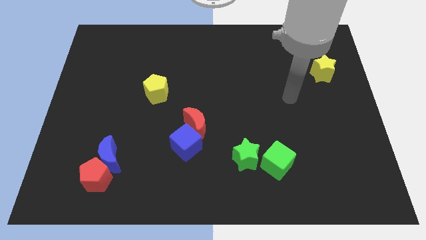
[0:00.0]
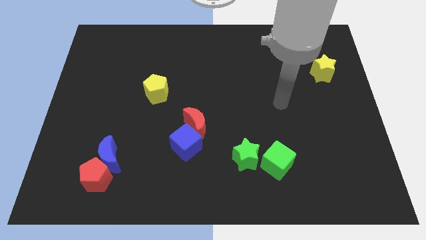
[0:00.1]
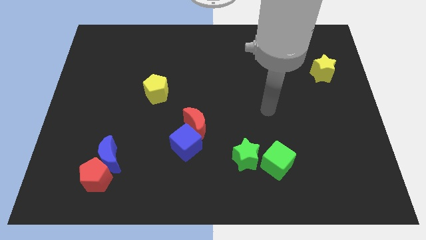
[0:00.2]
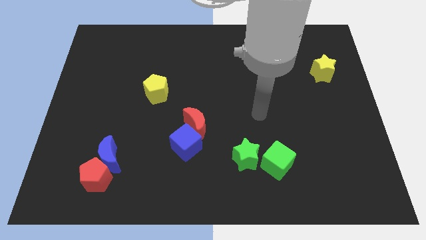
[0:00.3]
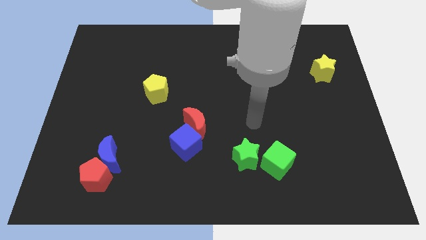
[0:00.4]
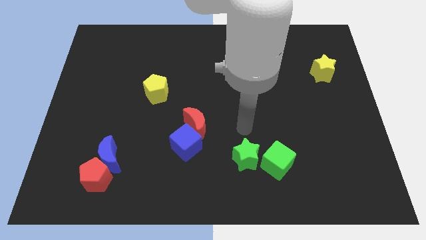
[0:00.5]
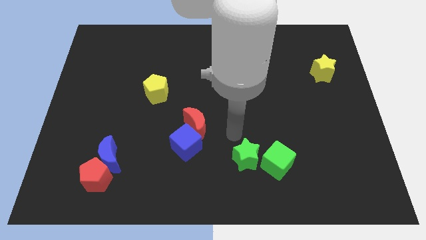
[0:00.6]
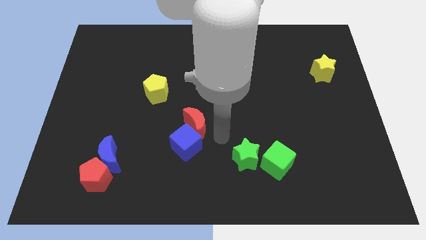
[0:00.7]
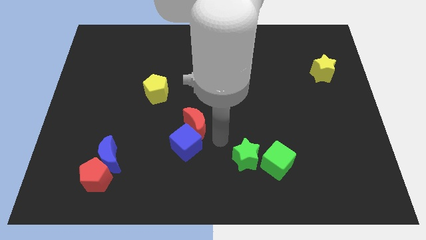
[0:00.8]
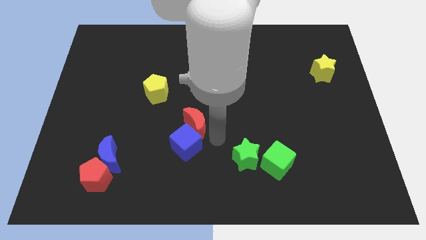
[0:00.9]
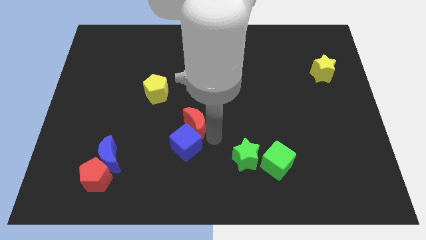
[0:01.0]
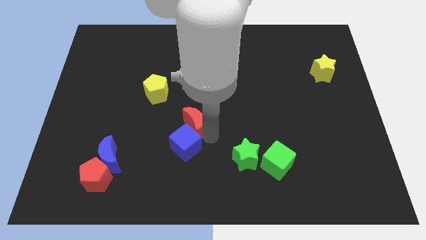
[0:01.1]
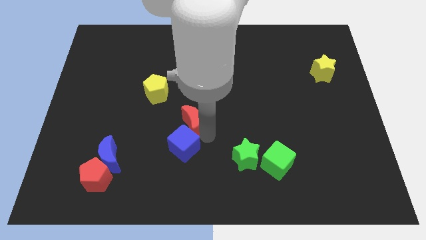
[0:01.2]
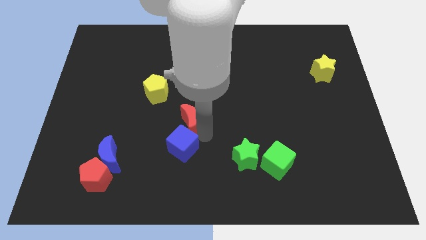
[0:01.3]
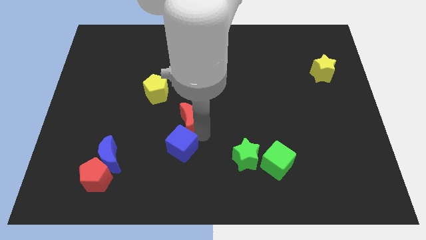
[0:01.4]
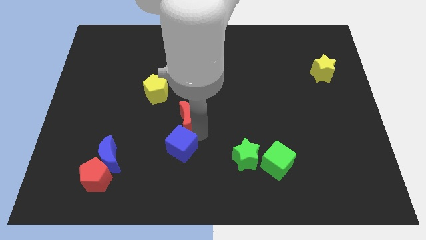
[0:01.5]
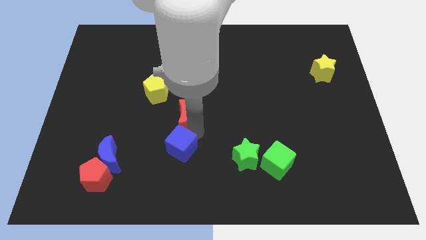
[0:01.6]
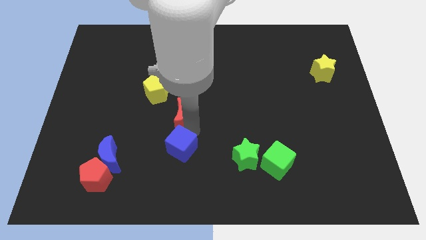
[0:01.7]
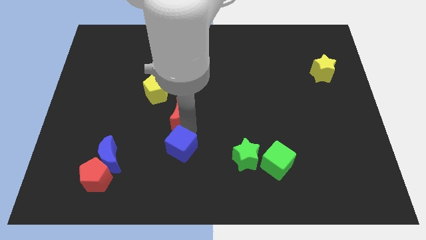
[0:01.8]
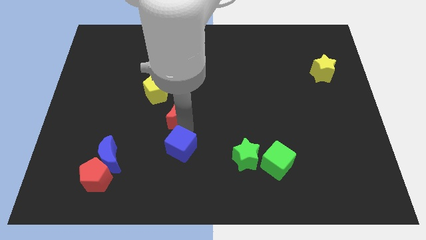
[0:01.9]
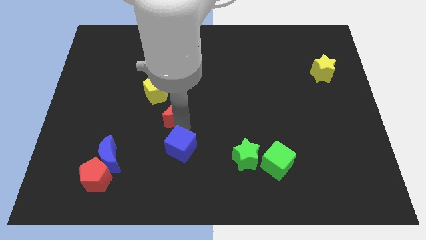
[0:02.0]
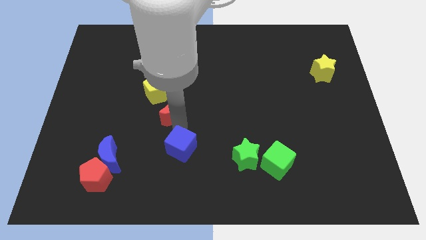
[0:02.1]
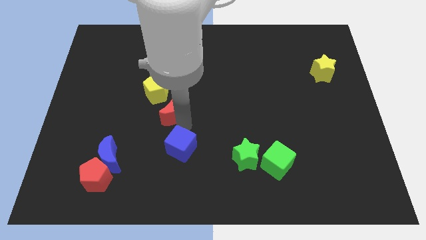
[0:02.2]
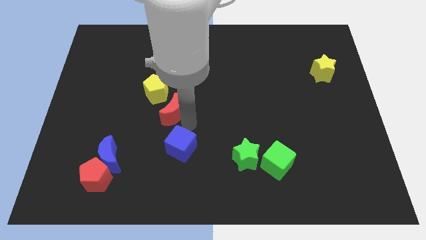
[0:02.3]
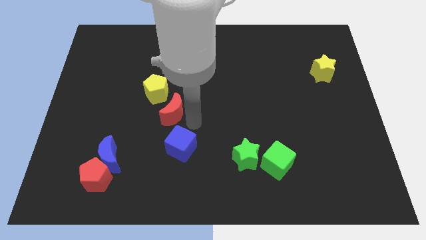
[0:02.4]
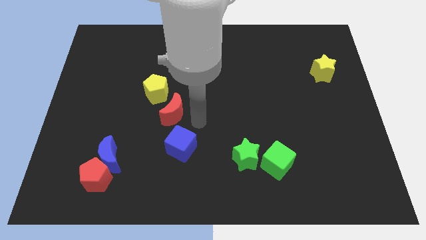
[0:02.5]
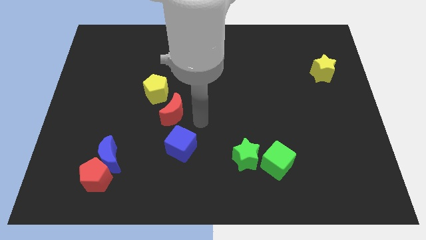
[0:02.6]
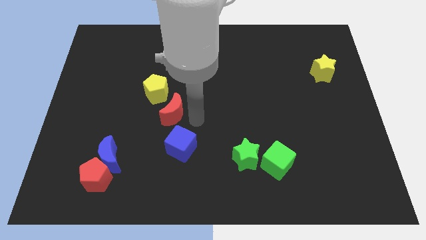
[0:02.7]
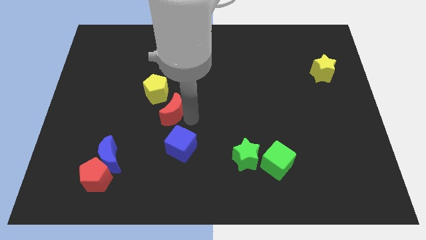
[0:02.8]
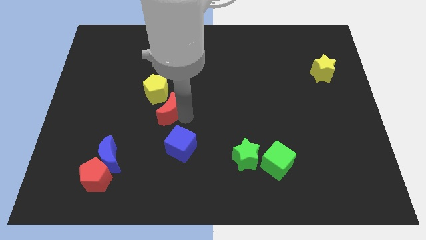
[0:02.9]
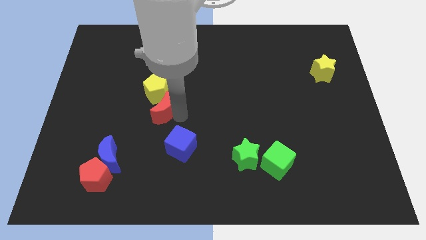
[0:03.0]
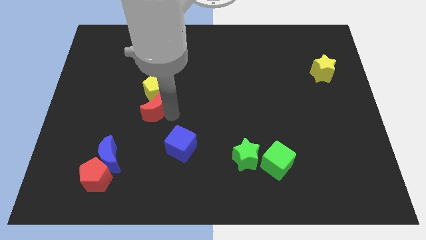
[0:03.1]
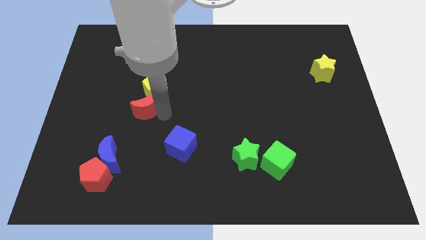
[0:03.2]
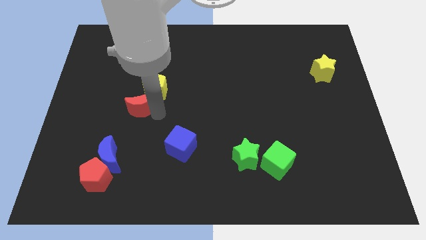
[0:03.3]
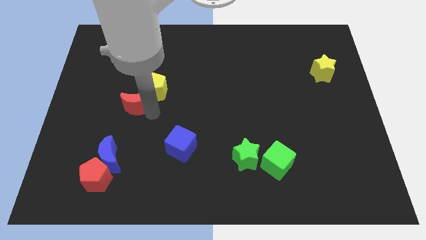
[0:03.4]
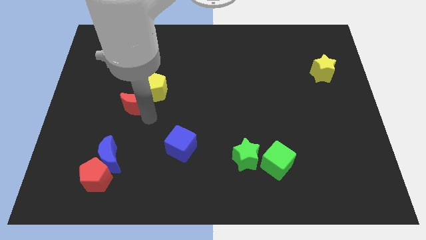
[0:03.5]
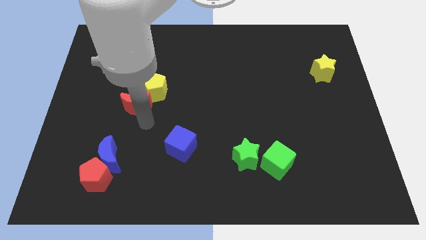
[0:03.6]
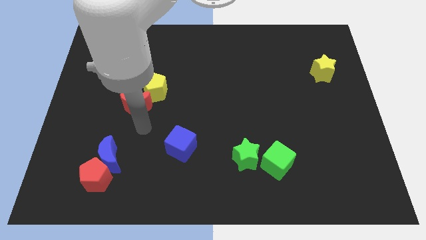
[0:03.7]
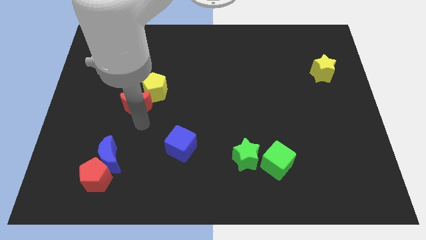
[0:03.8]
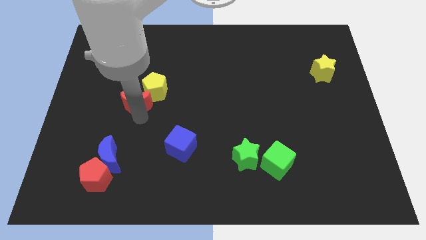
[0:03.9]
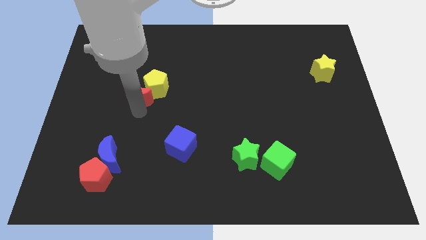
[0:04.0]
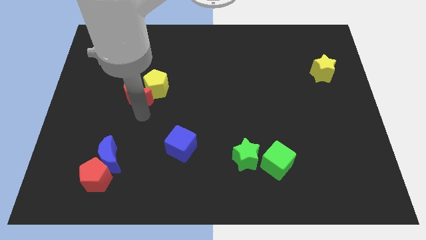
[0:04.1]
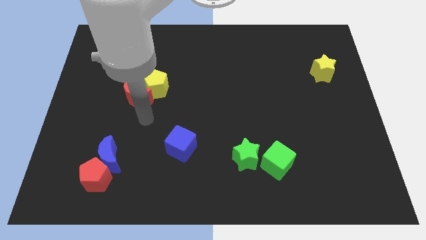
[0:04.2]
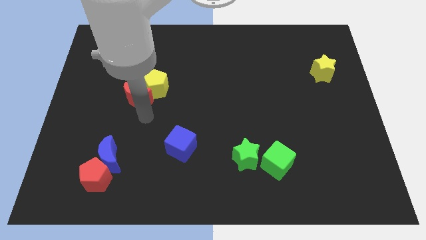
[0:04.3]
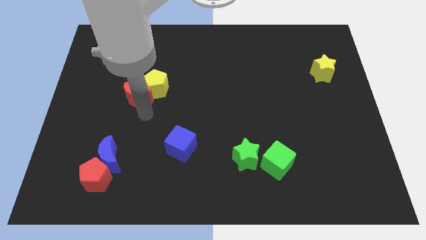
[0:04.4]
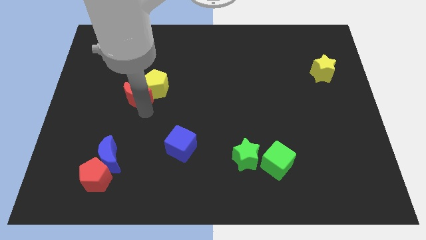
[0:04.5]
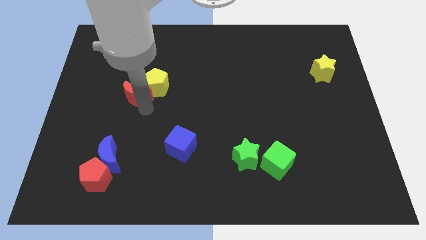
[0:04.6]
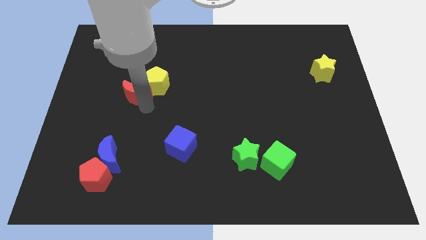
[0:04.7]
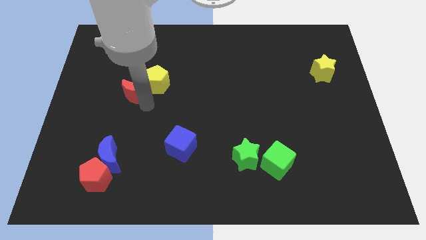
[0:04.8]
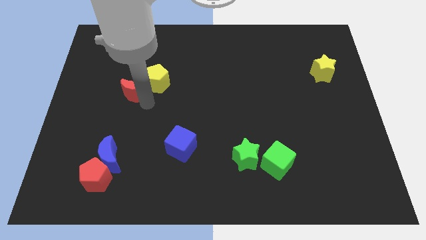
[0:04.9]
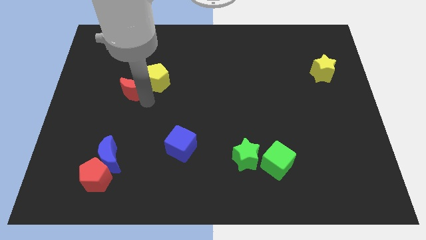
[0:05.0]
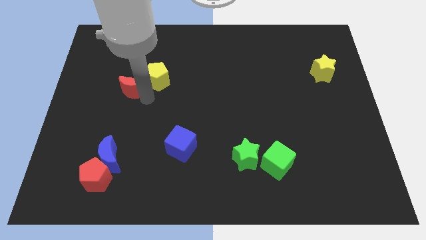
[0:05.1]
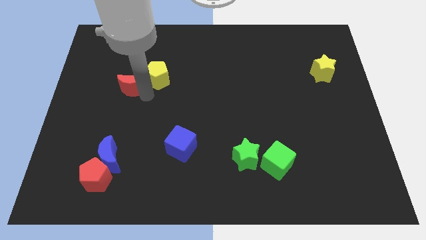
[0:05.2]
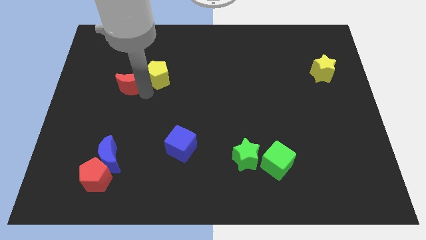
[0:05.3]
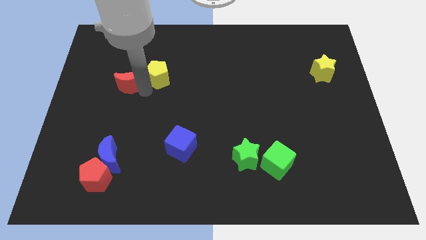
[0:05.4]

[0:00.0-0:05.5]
push the red moon upwards and then left

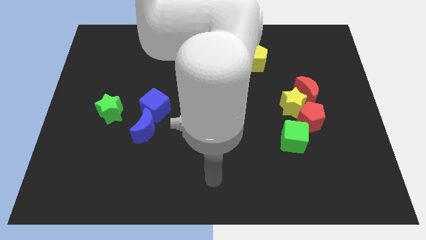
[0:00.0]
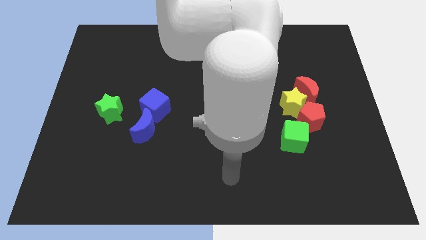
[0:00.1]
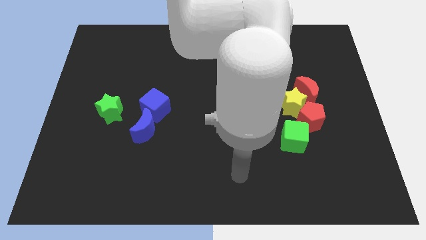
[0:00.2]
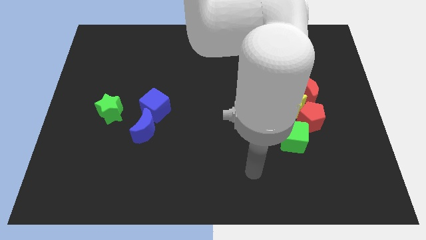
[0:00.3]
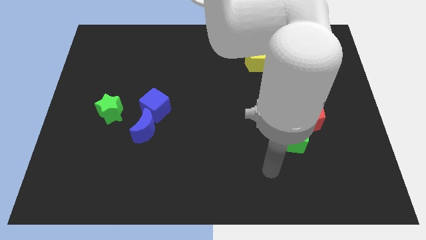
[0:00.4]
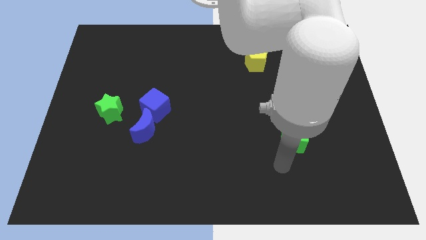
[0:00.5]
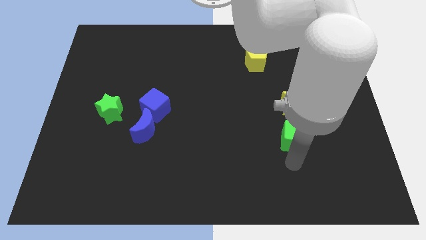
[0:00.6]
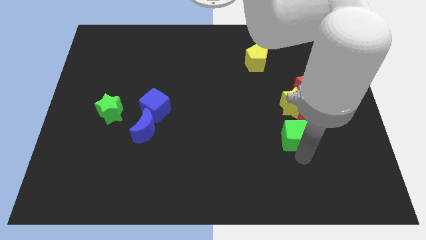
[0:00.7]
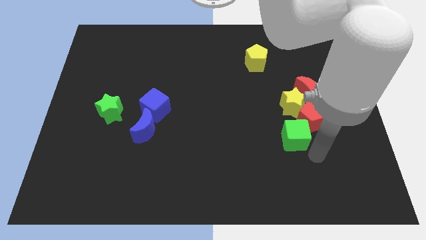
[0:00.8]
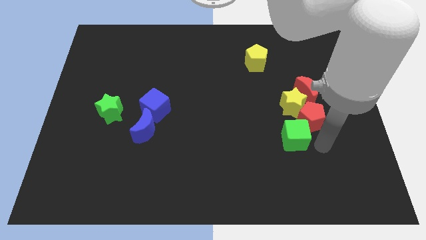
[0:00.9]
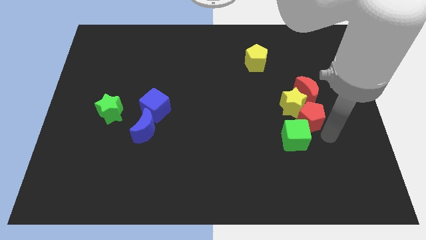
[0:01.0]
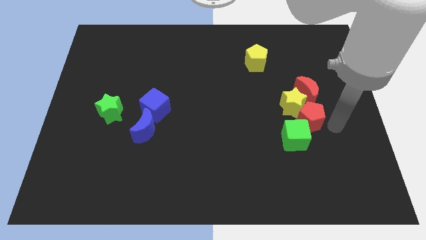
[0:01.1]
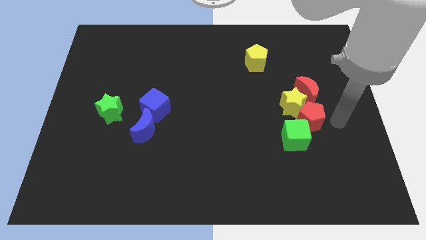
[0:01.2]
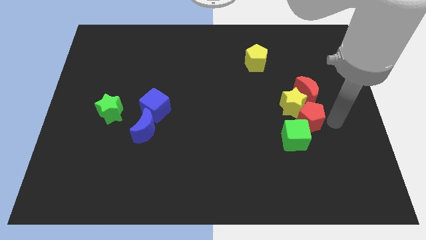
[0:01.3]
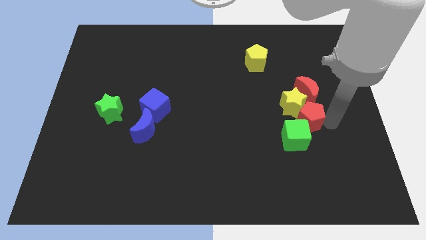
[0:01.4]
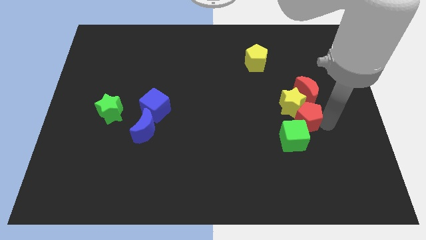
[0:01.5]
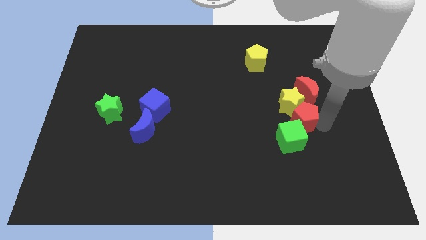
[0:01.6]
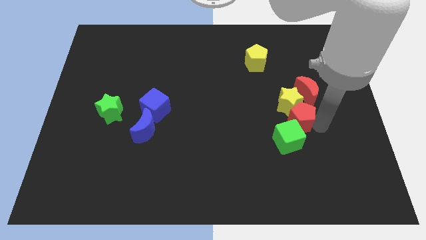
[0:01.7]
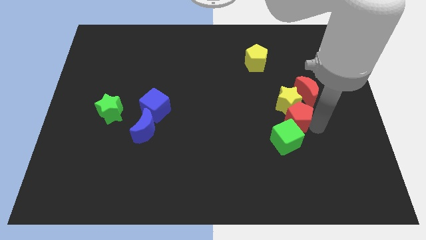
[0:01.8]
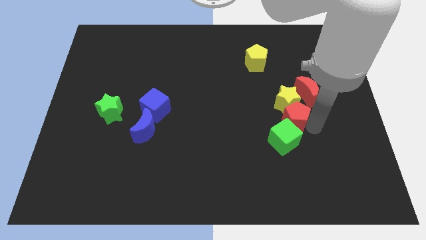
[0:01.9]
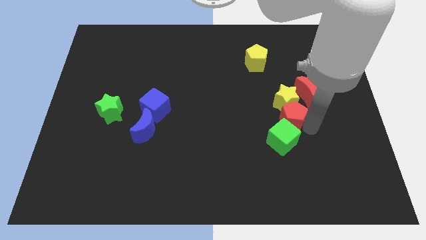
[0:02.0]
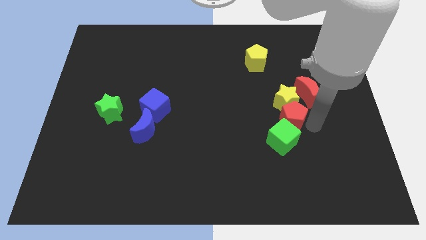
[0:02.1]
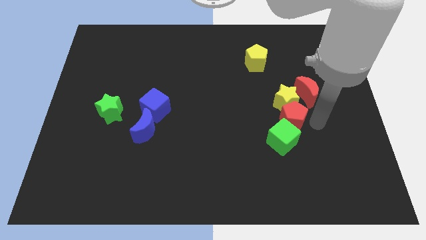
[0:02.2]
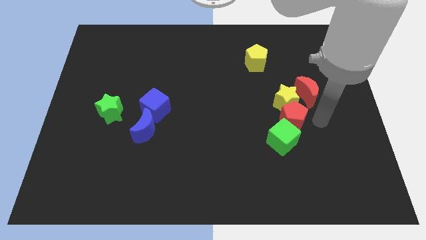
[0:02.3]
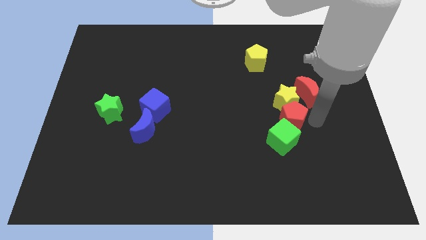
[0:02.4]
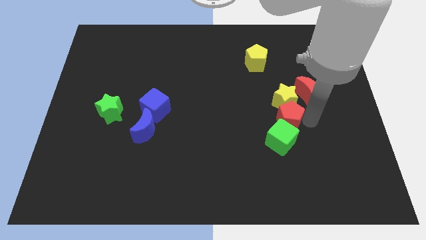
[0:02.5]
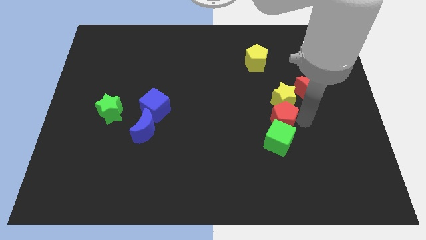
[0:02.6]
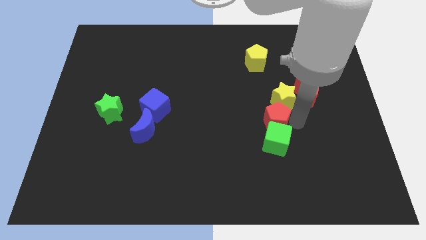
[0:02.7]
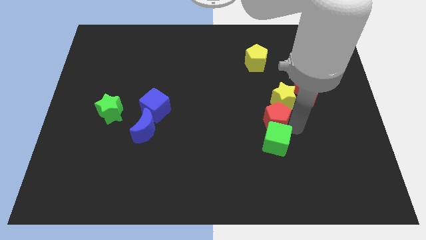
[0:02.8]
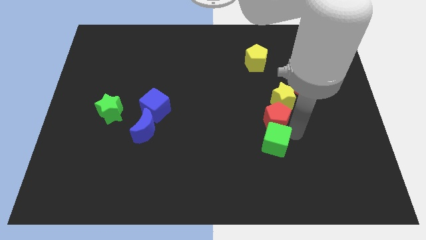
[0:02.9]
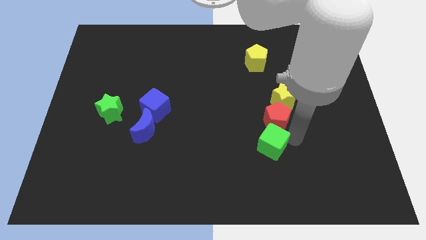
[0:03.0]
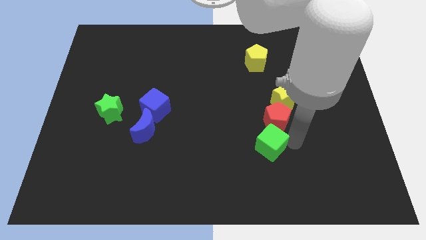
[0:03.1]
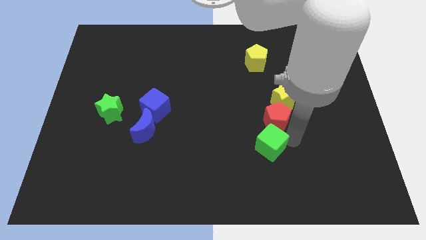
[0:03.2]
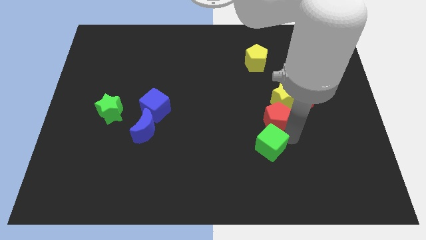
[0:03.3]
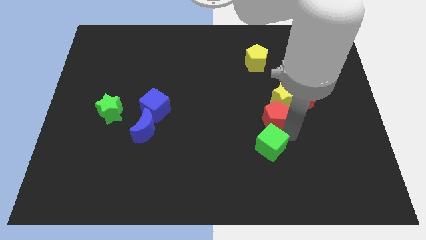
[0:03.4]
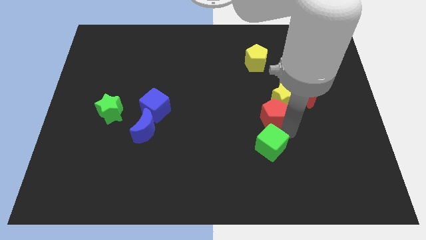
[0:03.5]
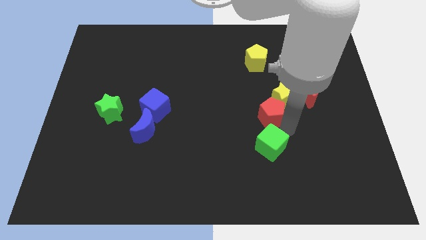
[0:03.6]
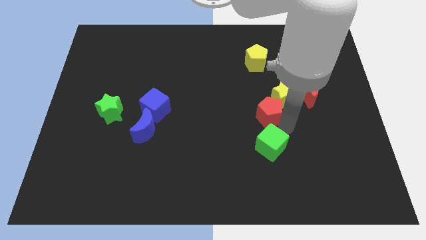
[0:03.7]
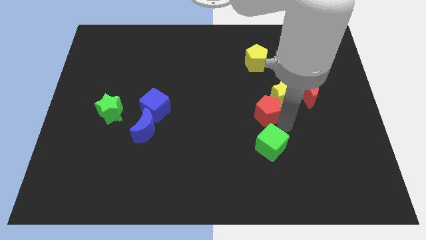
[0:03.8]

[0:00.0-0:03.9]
push the red pentagon a little bit diagonally up and left
